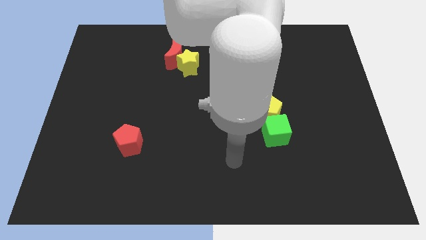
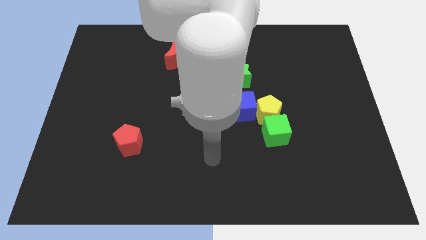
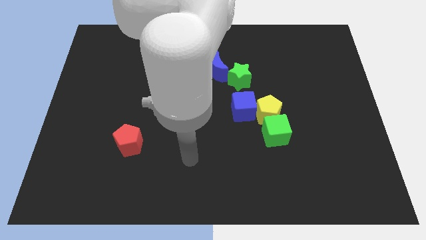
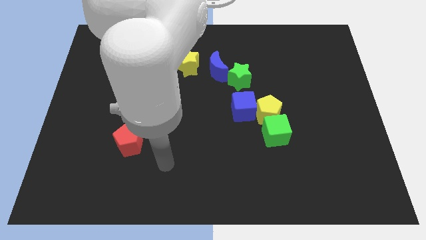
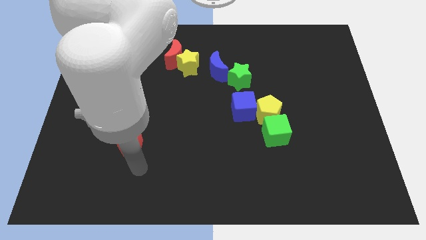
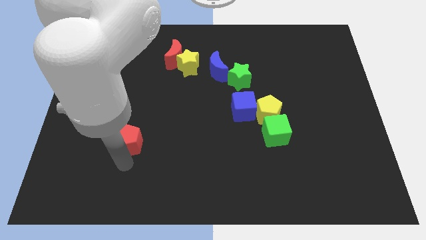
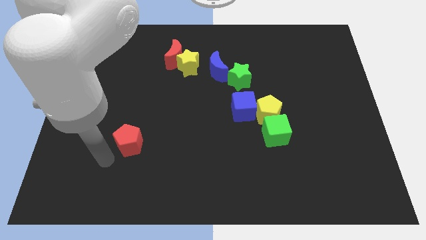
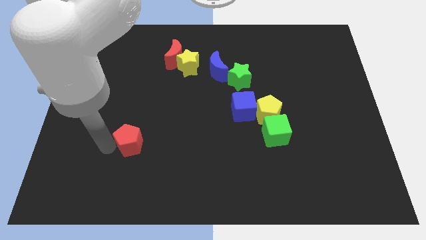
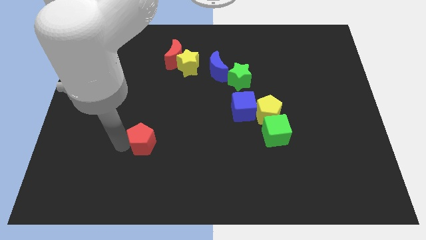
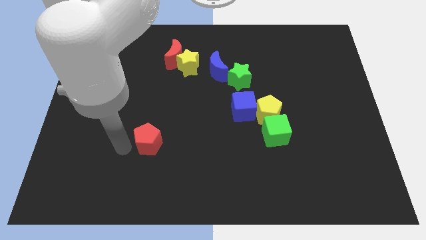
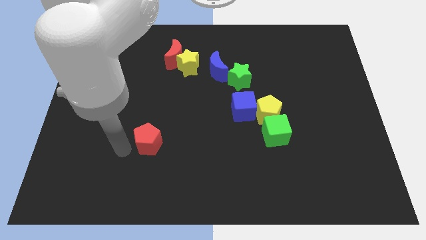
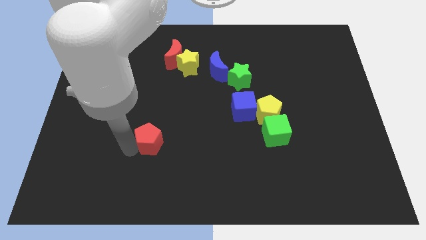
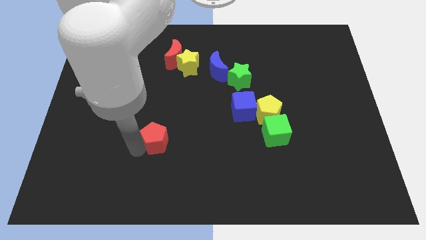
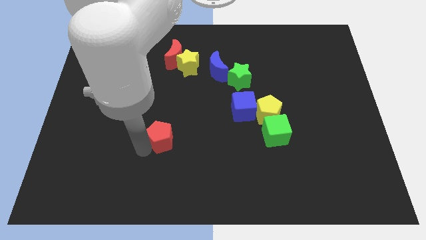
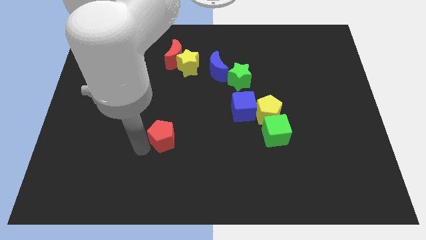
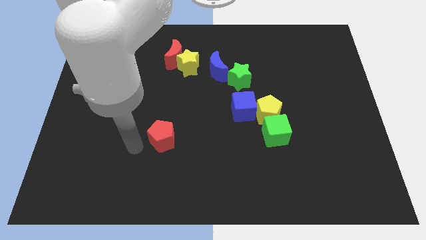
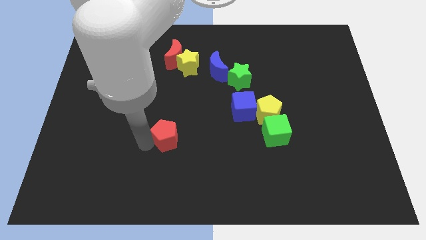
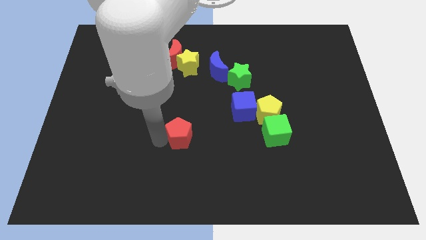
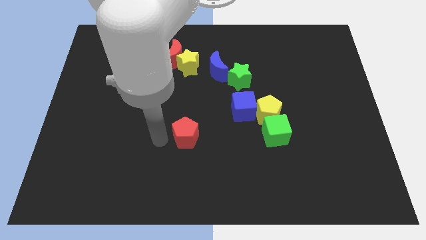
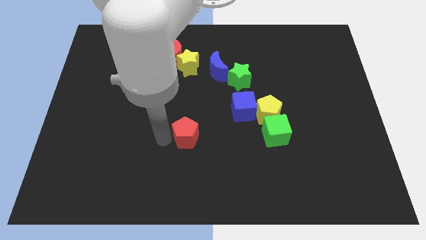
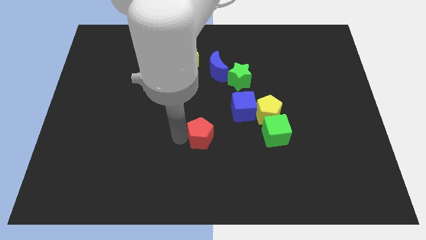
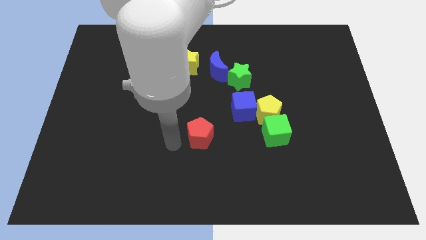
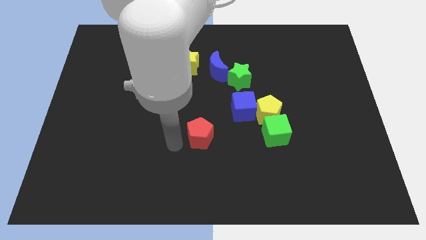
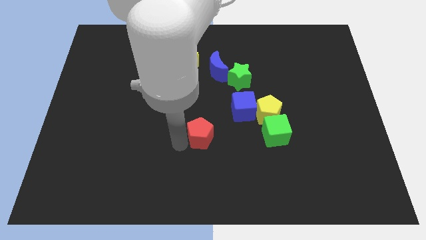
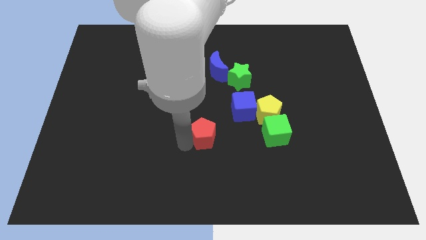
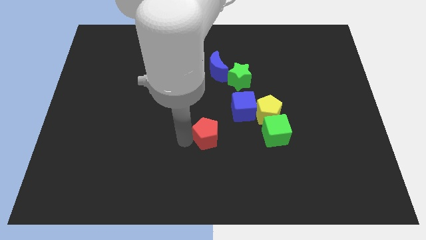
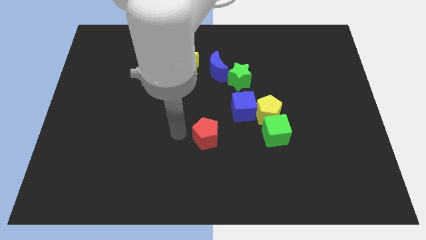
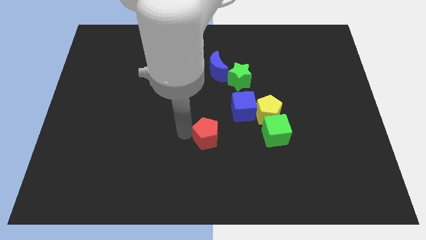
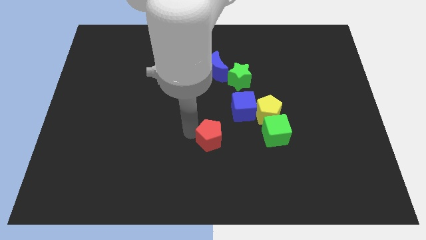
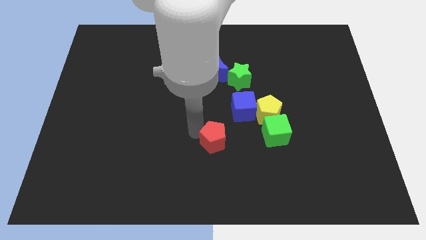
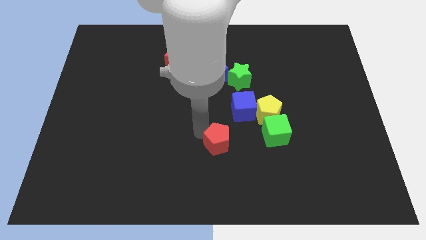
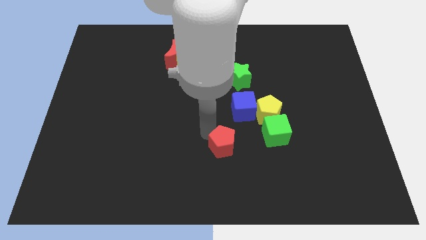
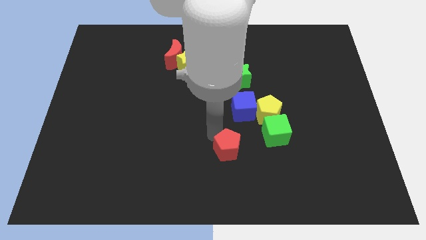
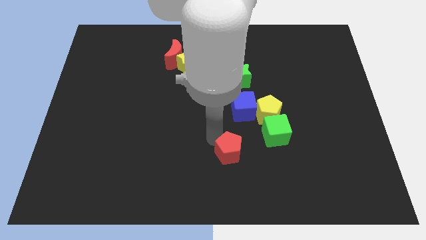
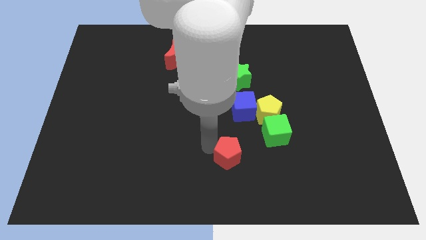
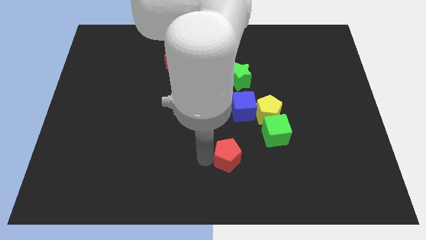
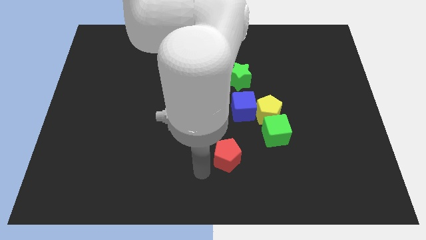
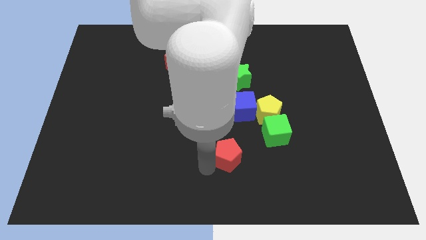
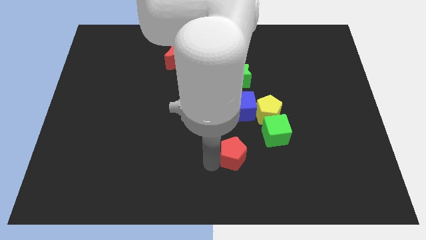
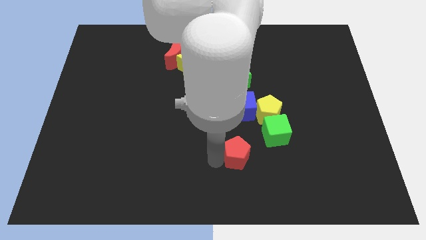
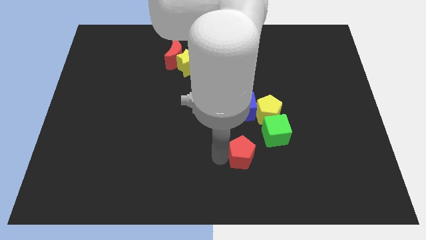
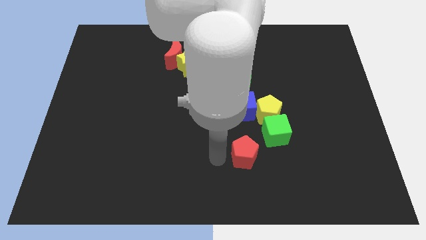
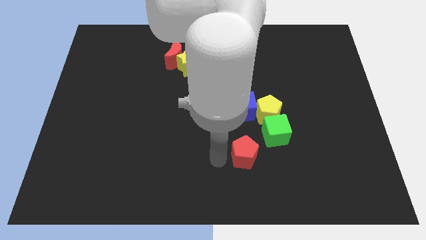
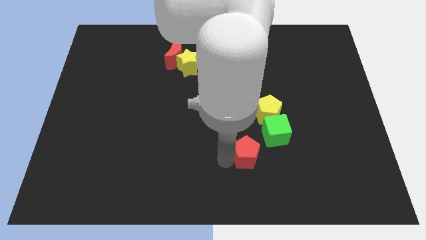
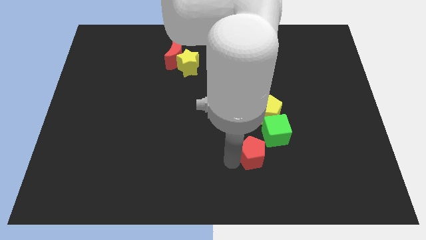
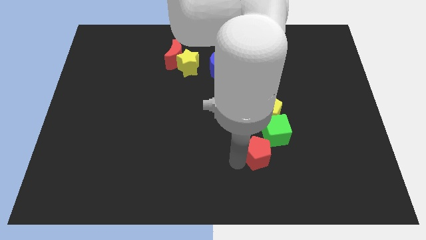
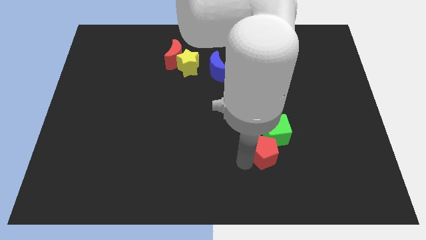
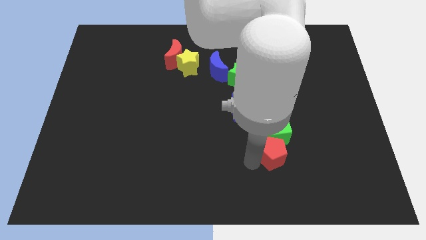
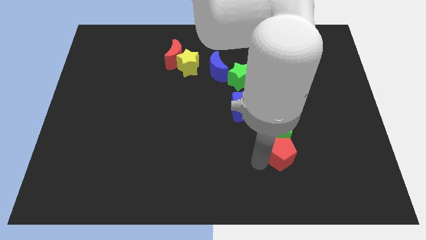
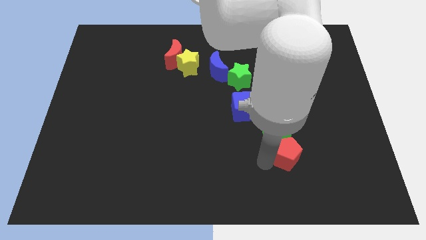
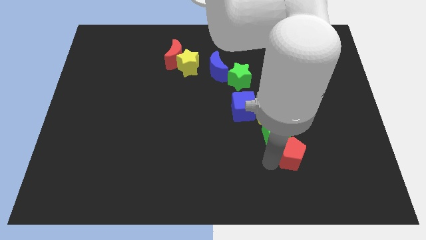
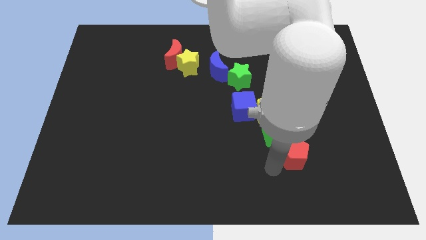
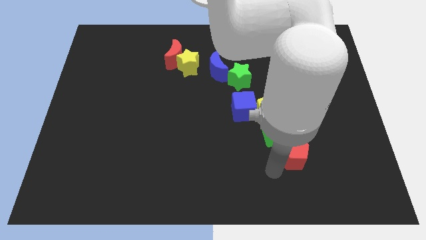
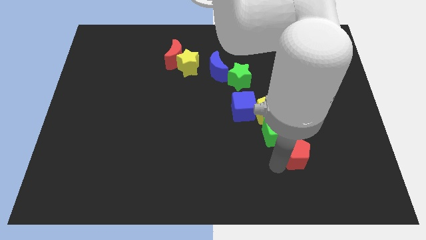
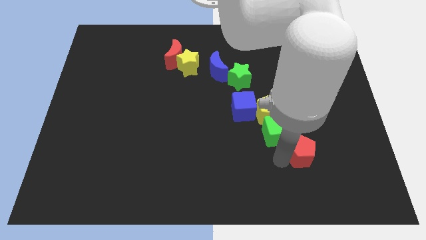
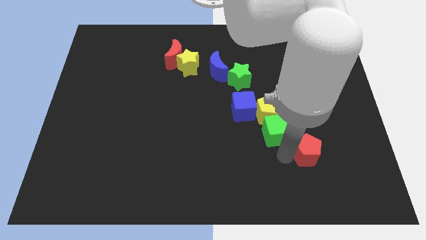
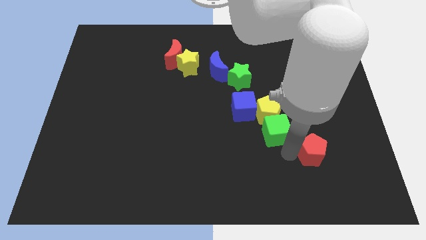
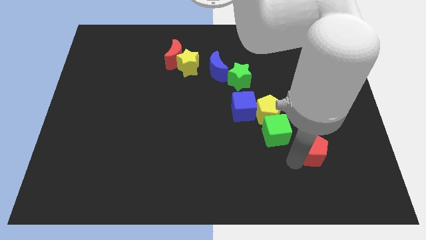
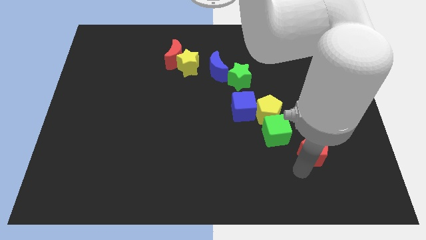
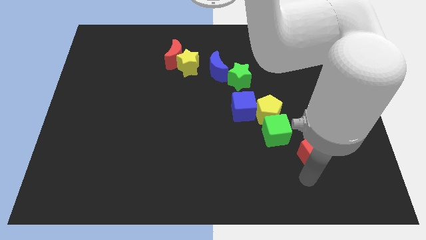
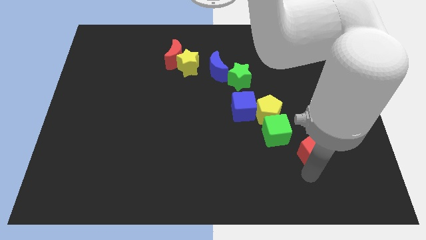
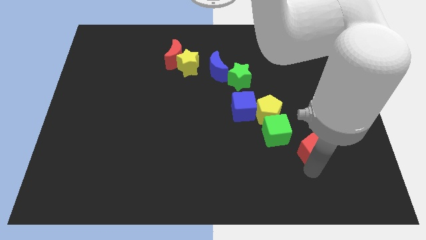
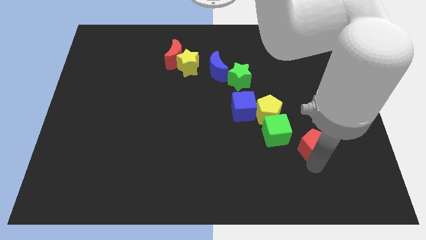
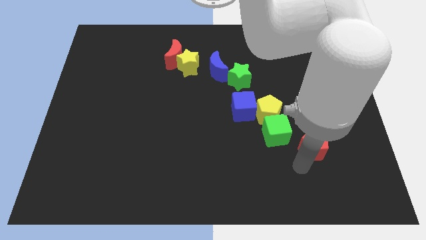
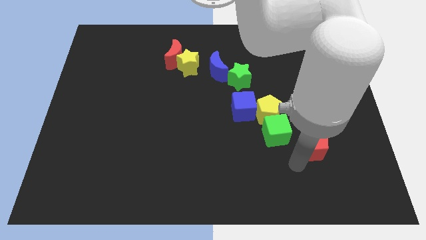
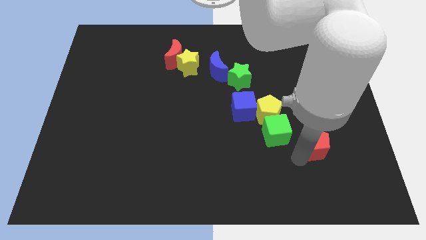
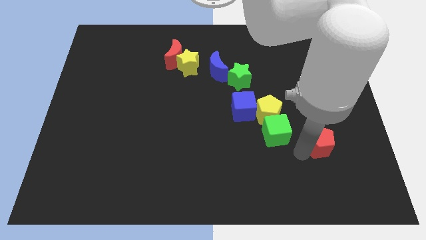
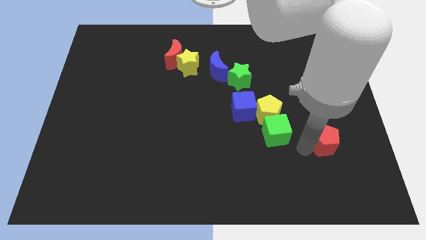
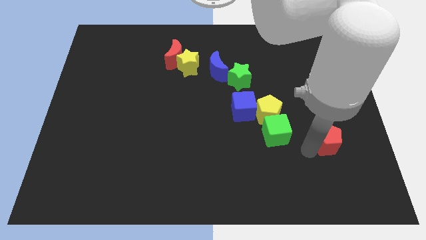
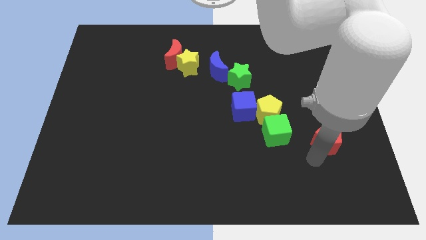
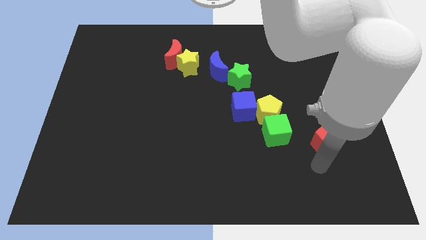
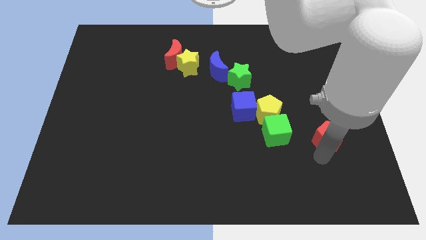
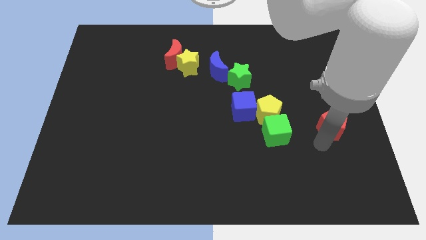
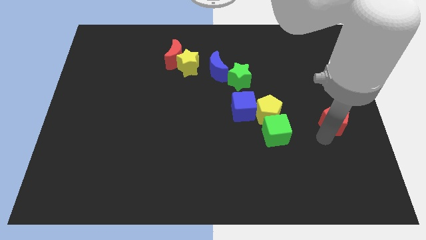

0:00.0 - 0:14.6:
push the red pentagon to the center right

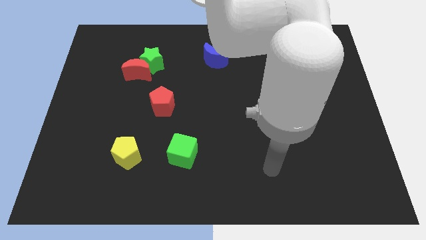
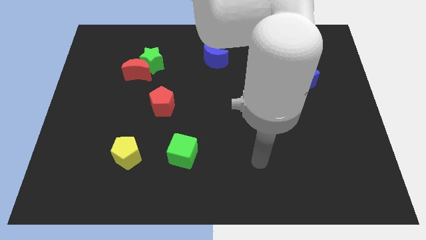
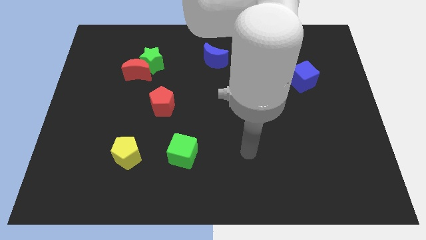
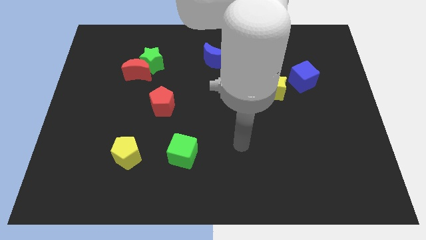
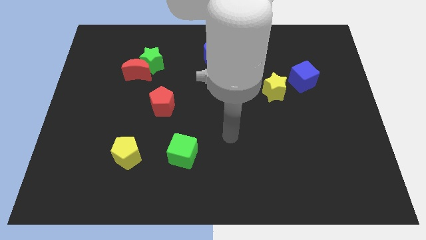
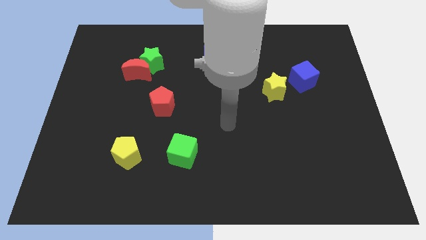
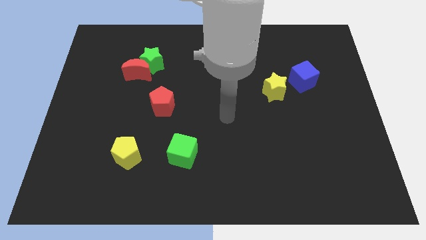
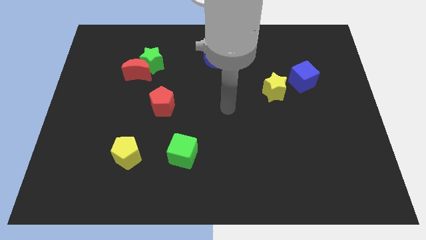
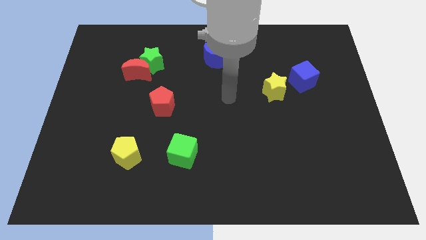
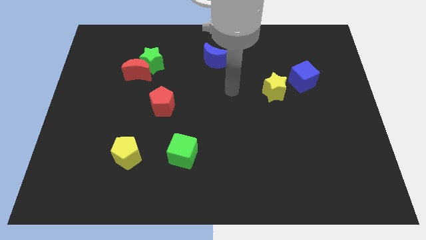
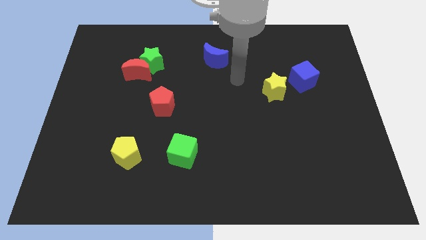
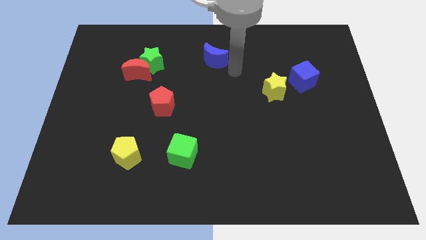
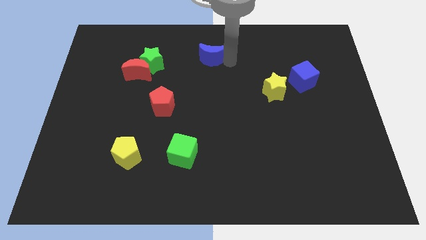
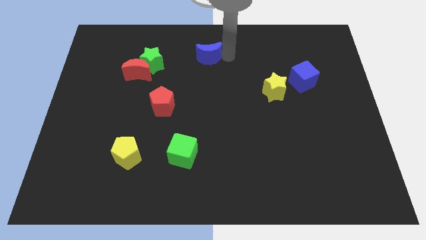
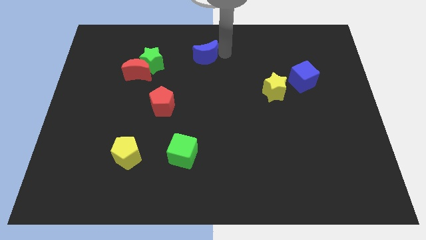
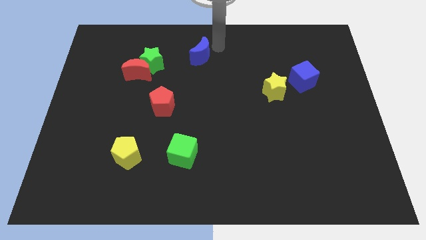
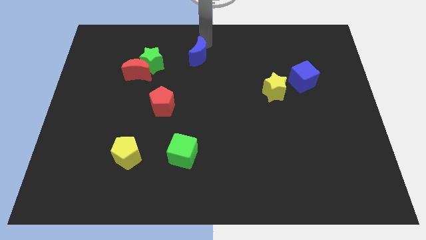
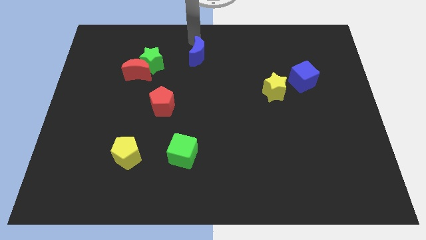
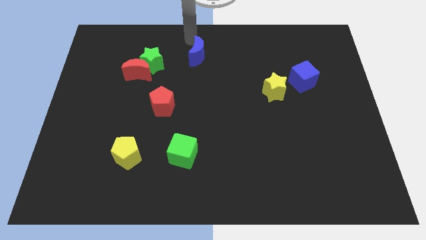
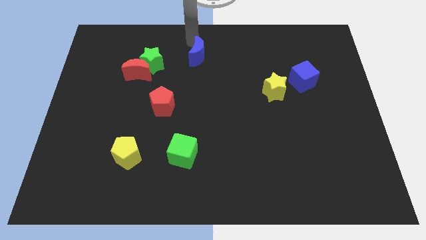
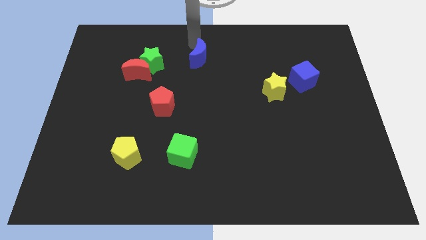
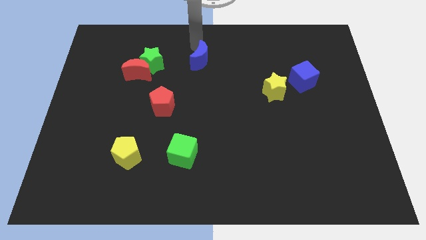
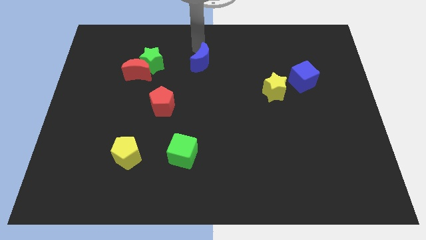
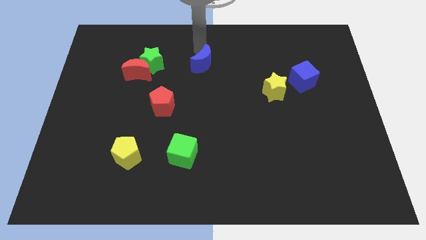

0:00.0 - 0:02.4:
move the blue moon to the middle
